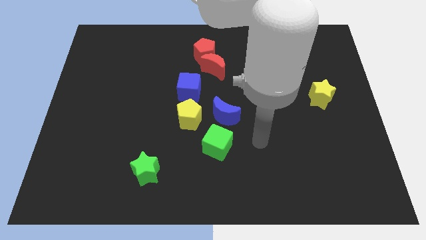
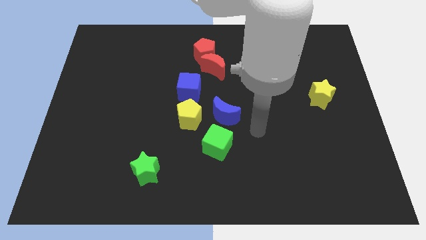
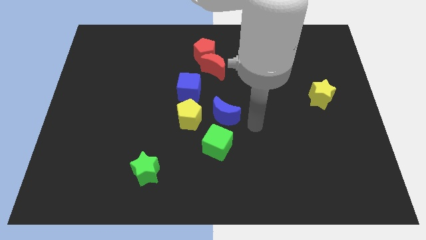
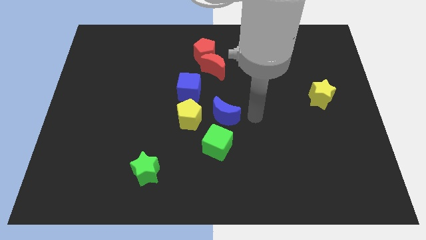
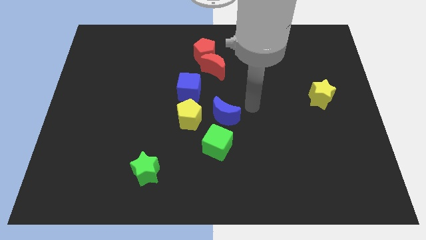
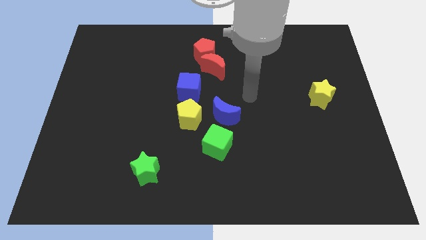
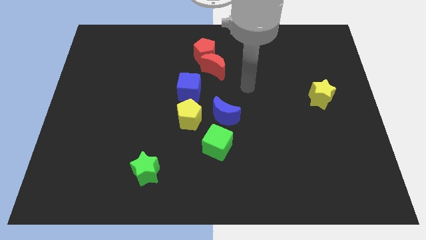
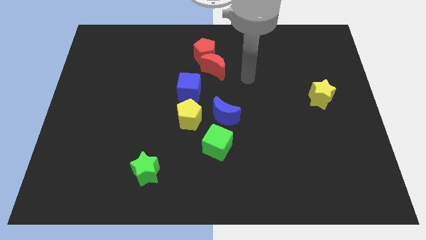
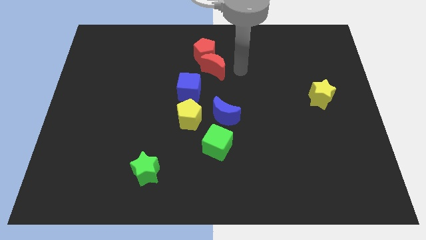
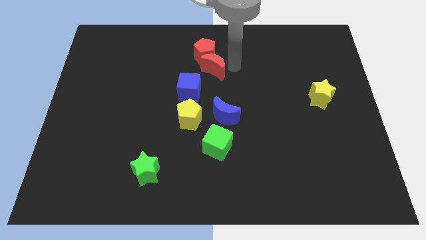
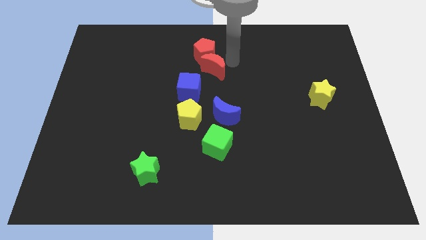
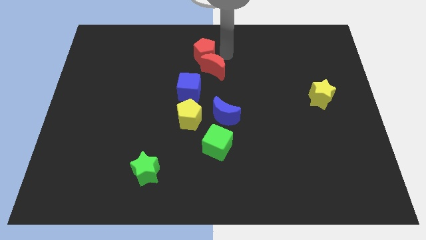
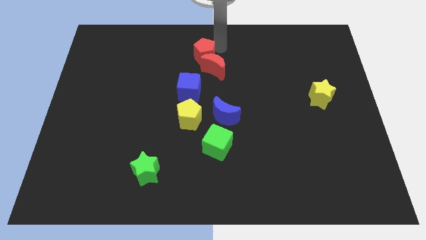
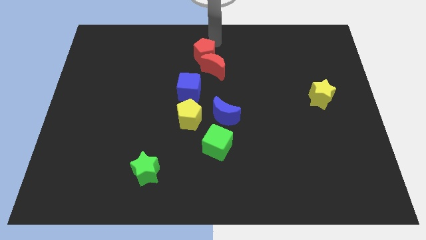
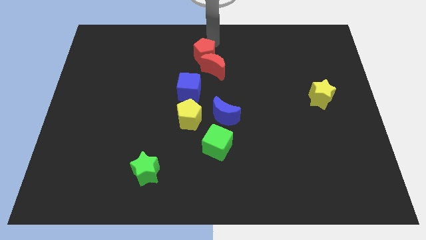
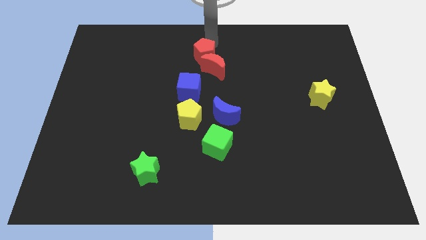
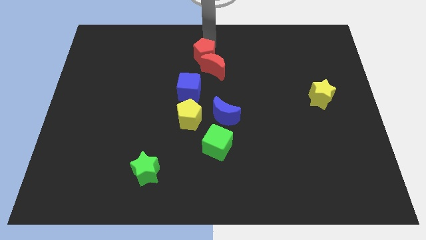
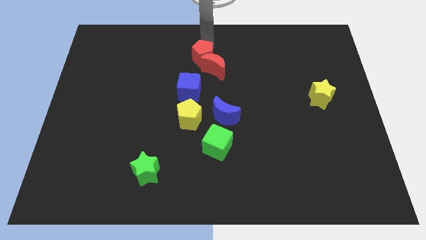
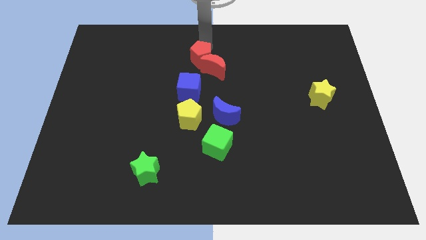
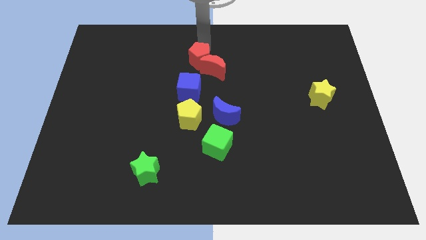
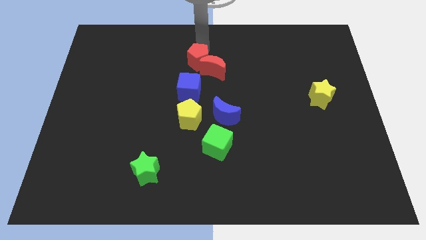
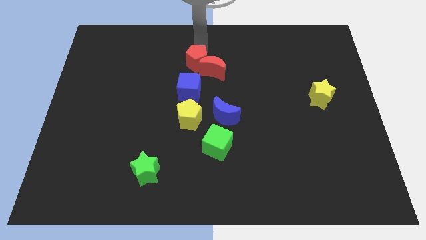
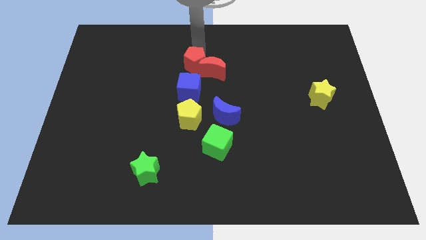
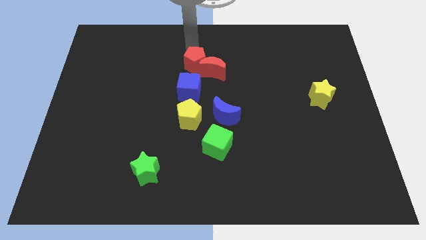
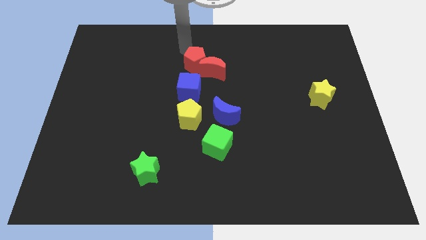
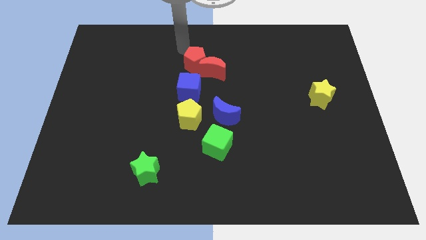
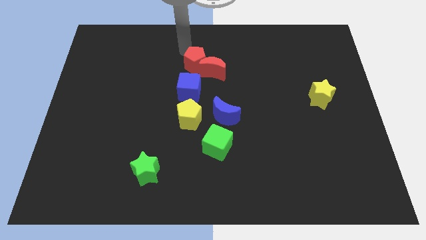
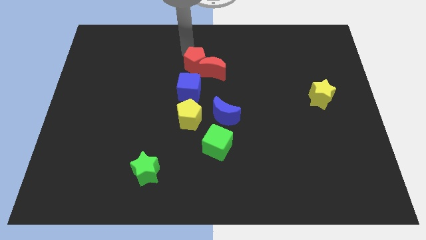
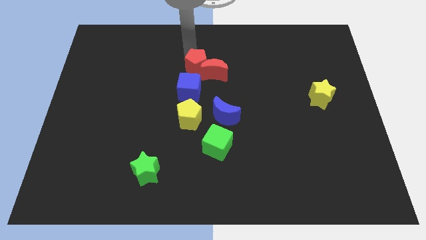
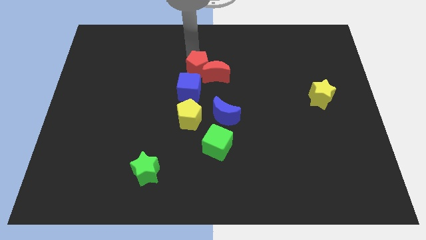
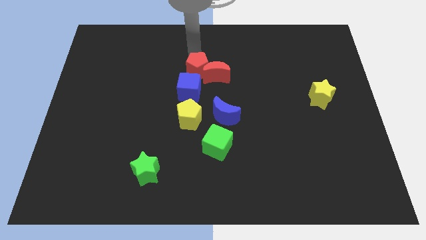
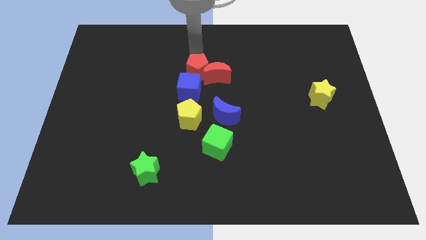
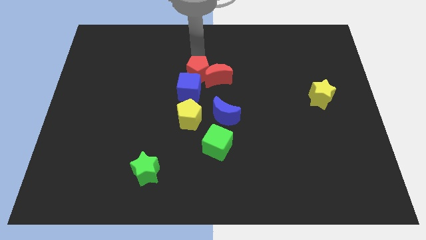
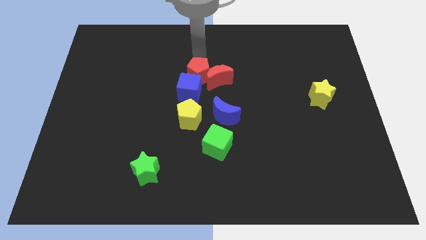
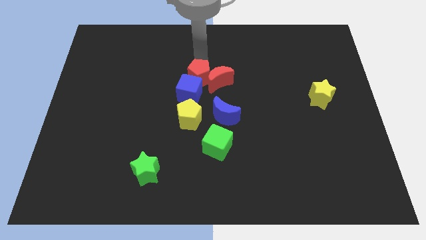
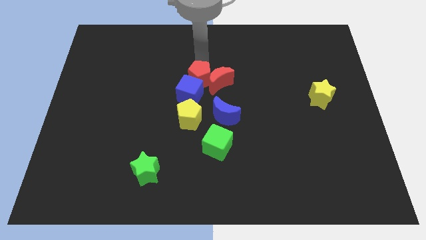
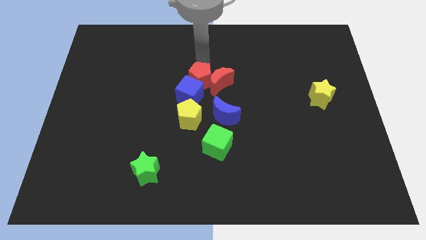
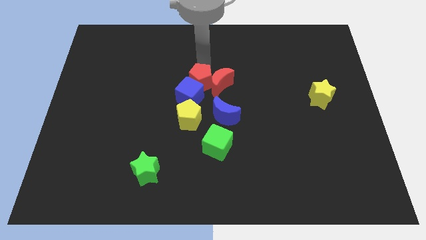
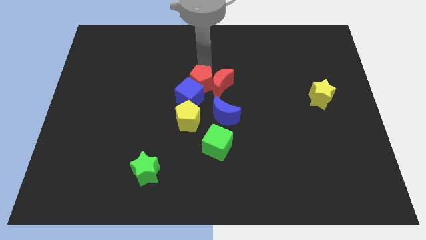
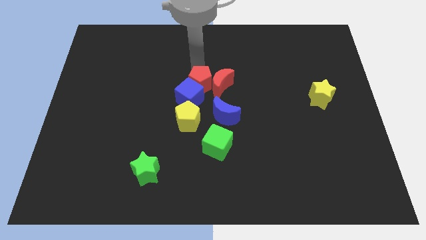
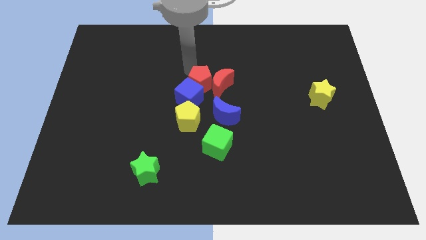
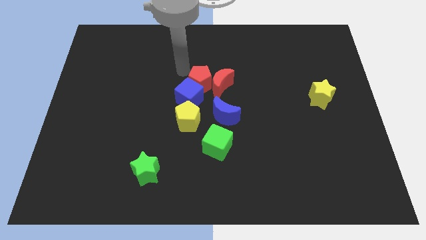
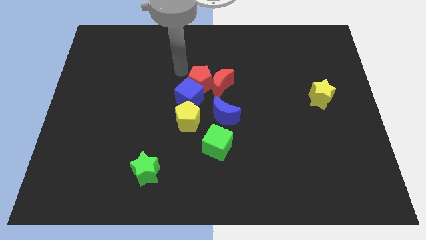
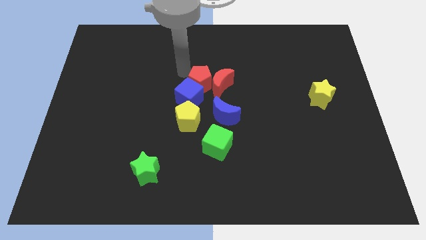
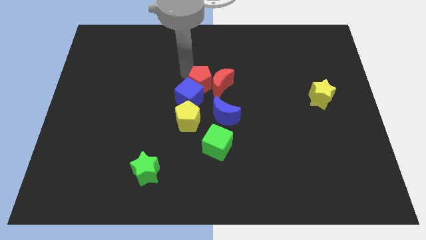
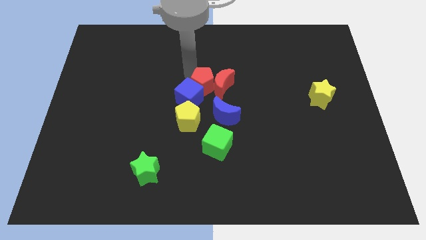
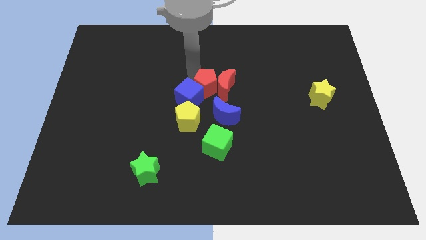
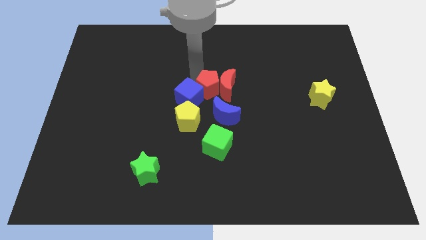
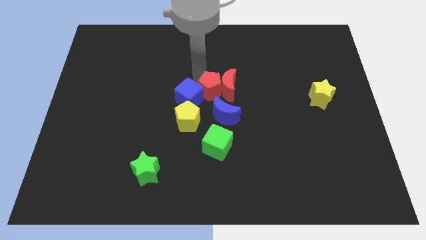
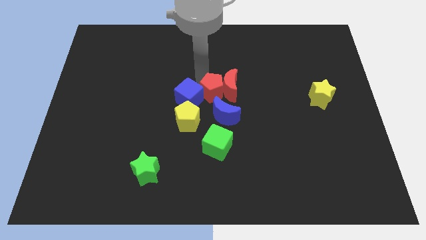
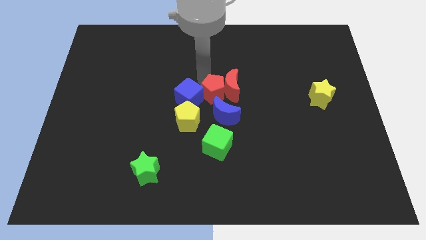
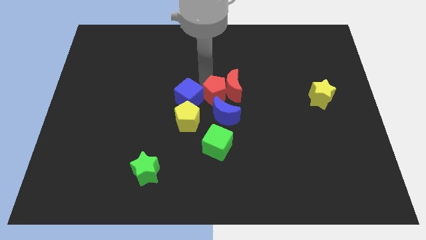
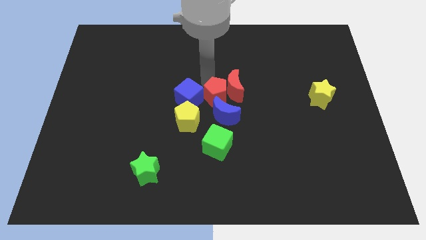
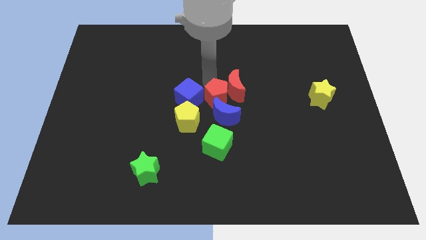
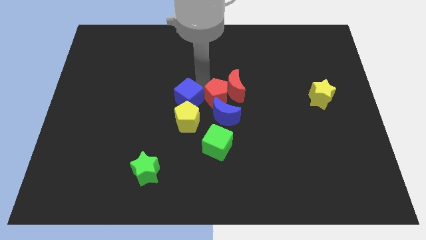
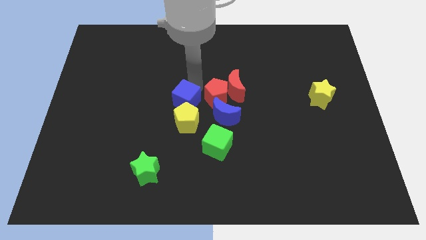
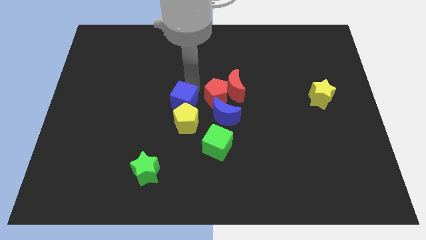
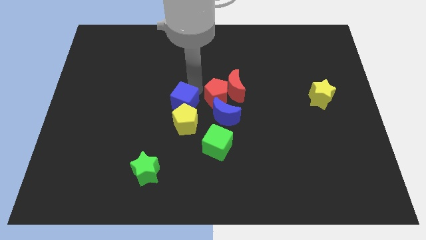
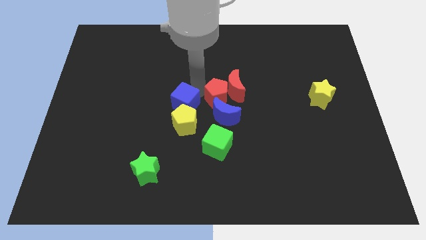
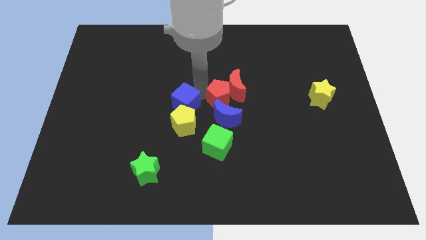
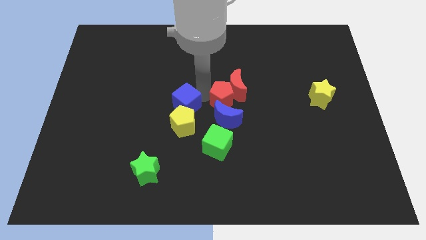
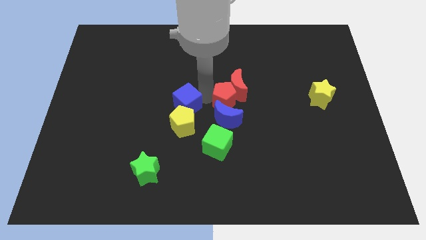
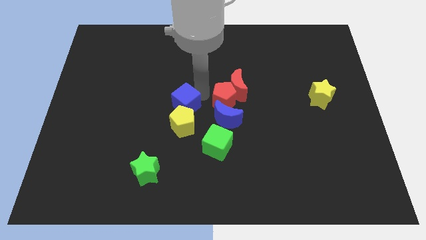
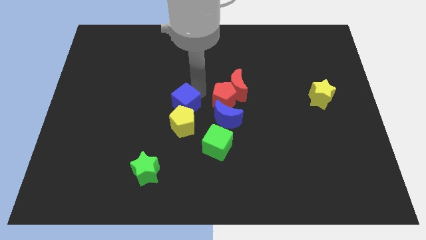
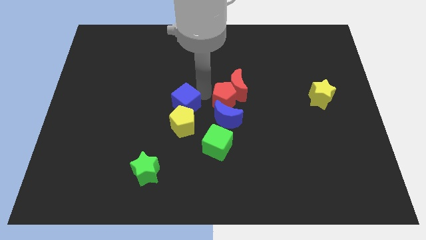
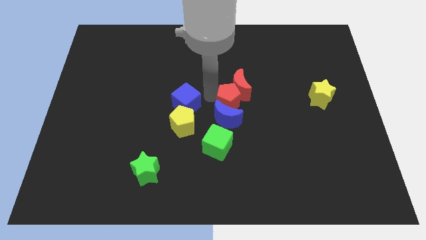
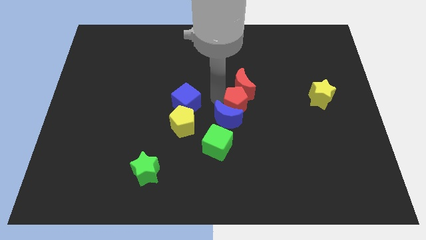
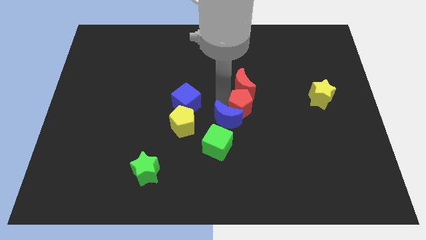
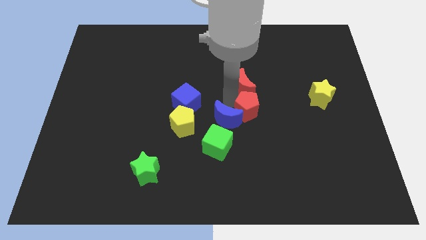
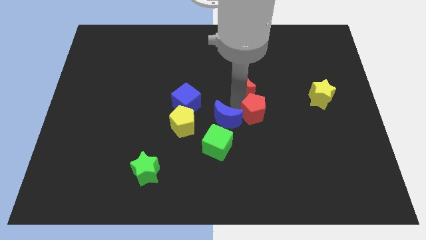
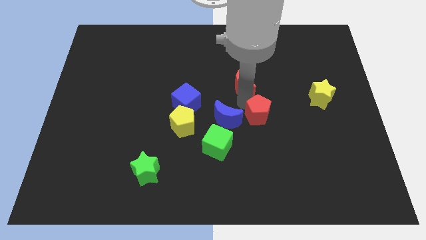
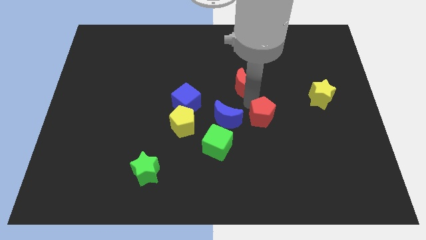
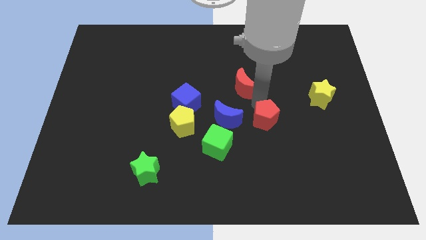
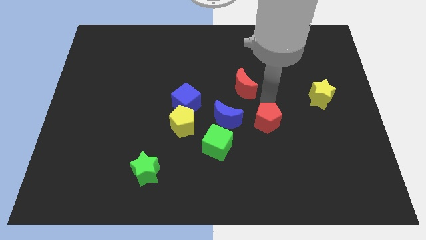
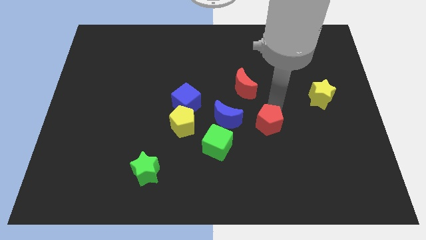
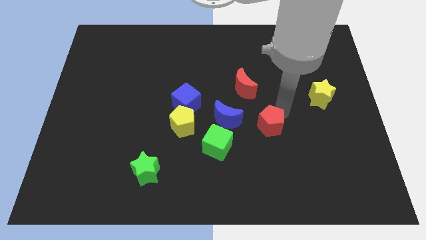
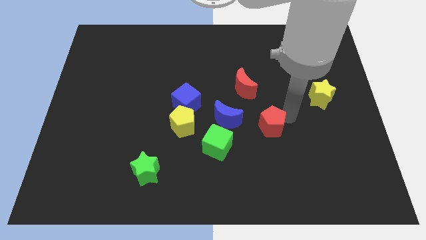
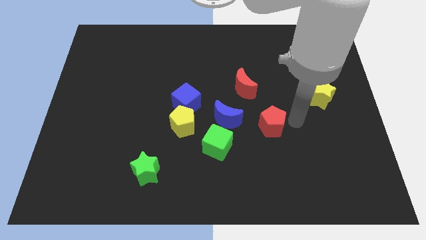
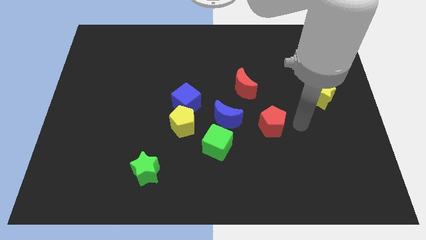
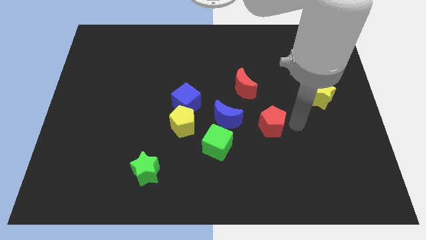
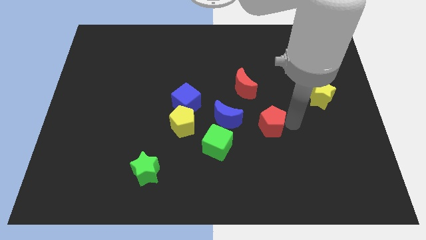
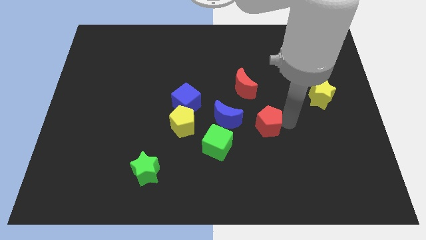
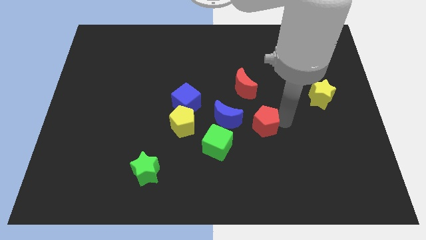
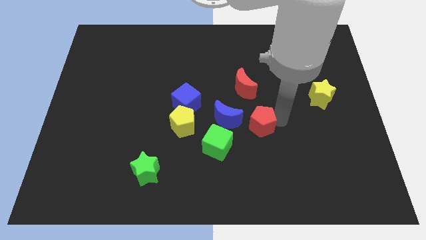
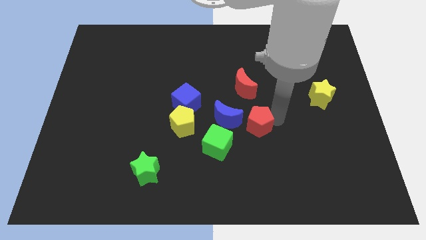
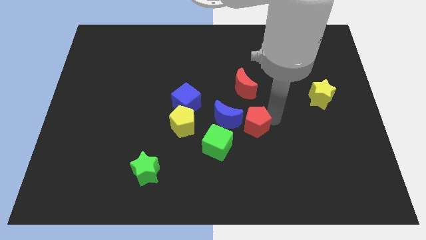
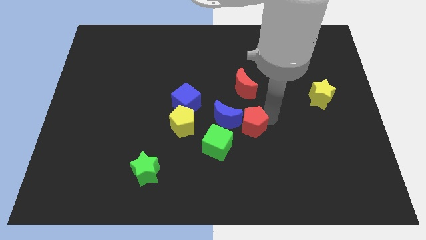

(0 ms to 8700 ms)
push the red pentagon to the right side of the yellow pentagon
